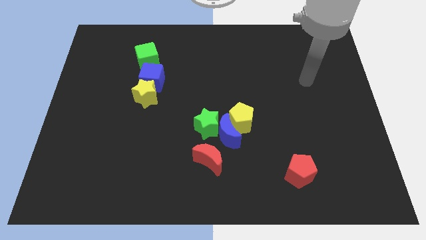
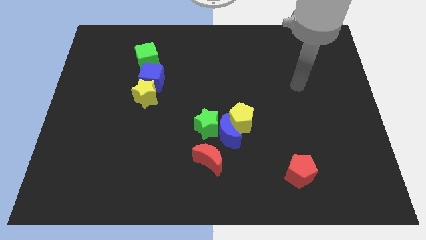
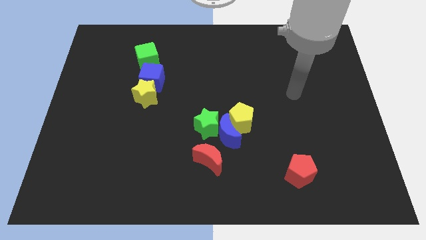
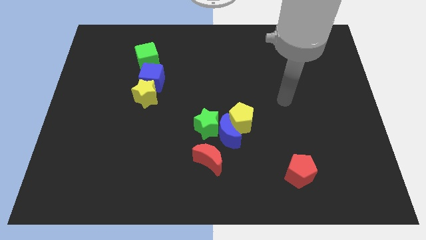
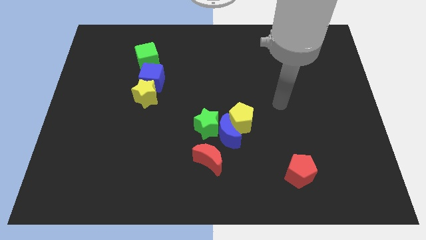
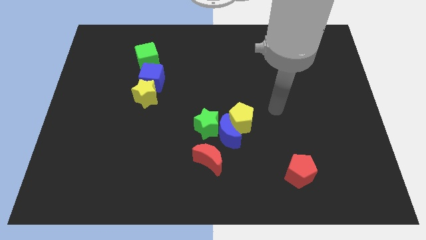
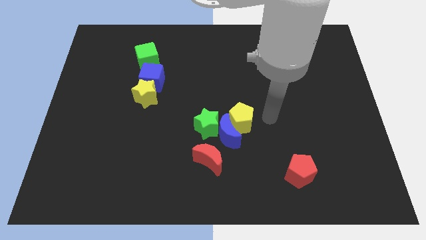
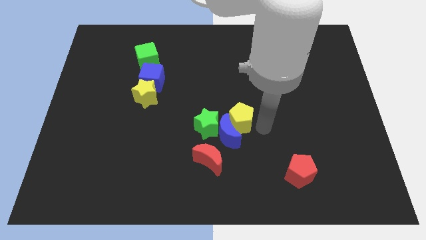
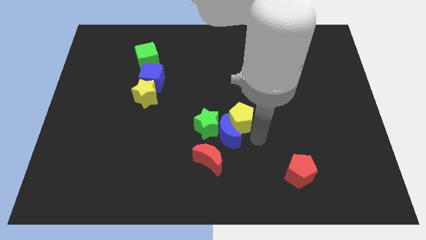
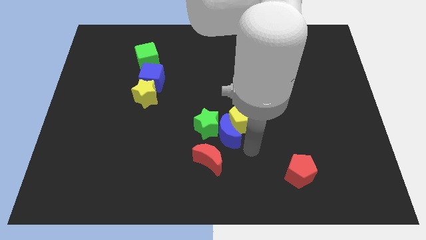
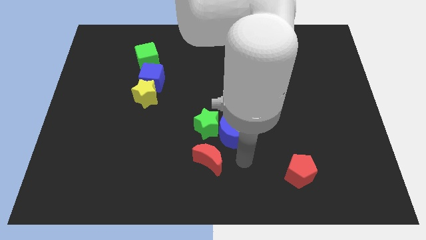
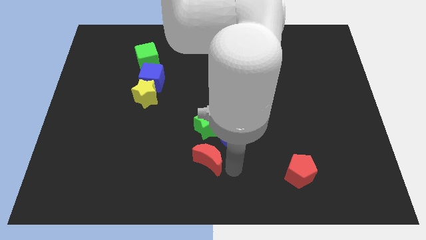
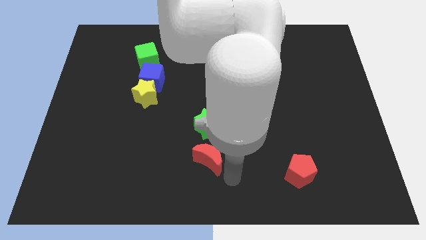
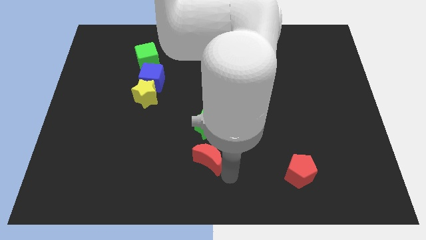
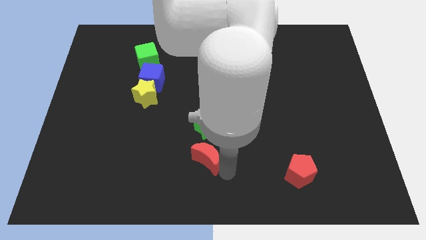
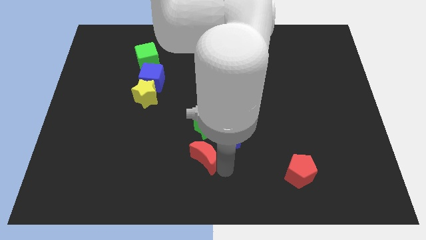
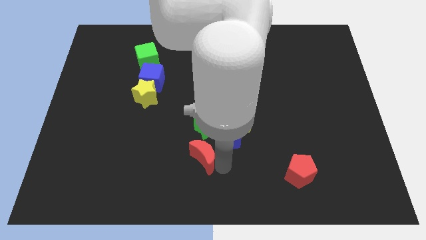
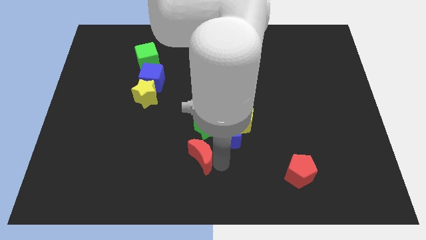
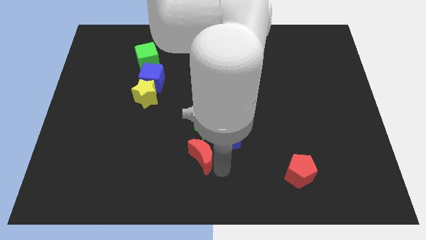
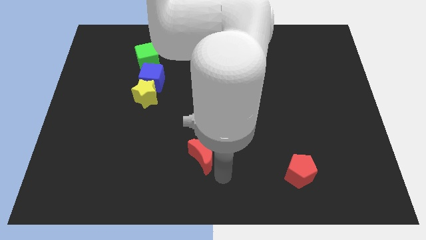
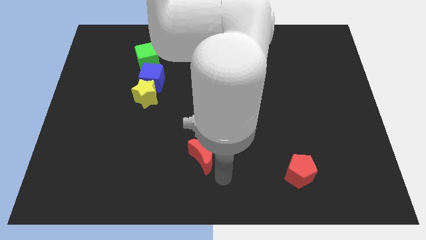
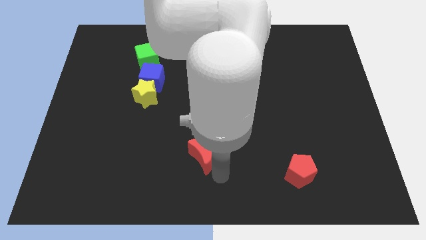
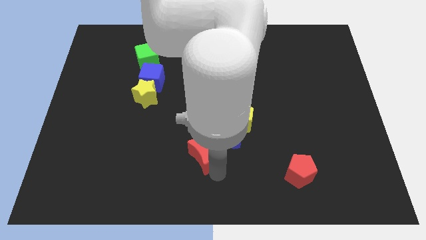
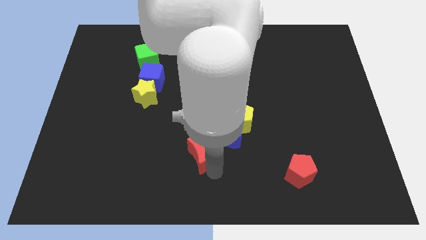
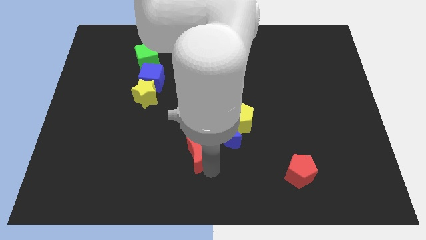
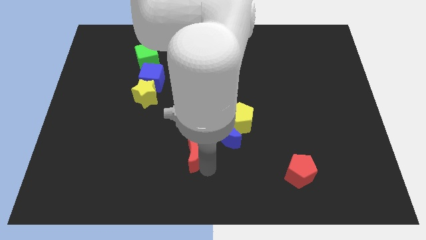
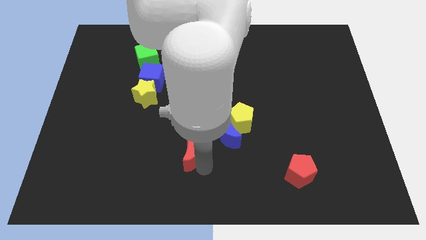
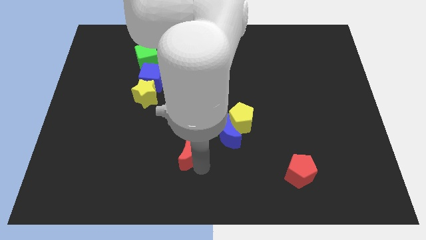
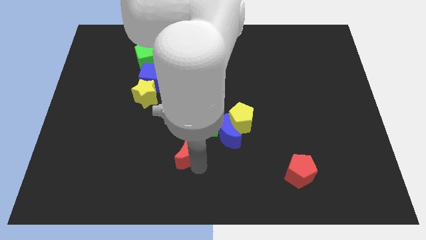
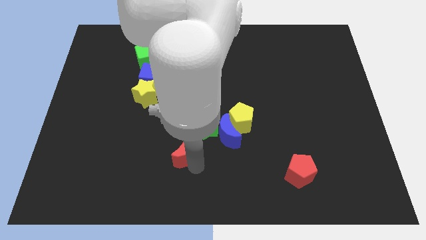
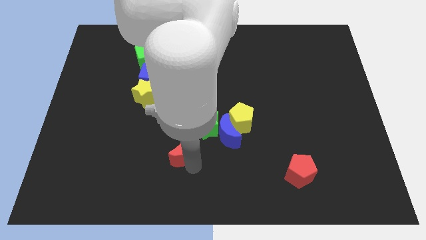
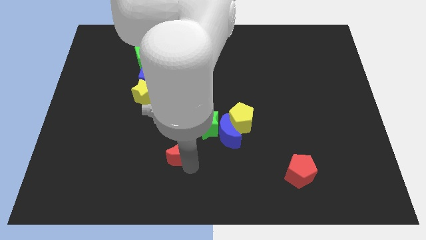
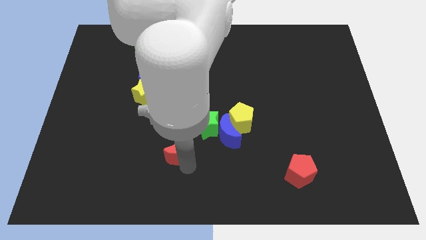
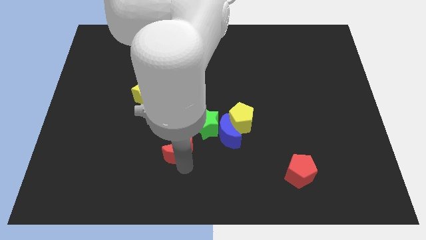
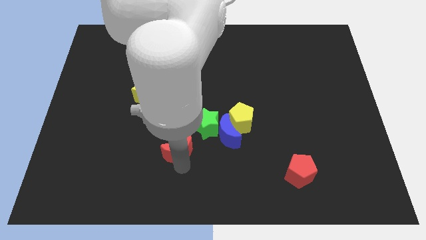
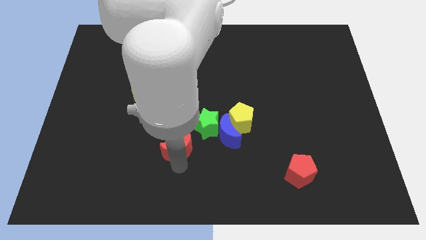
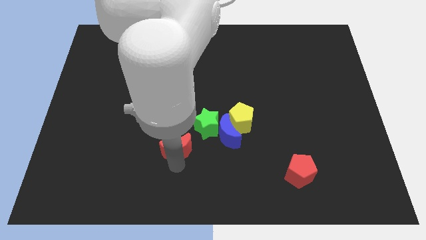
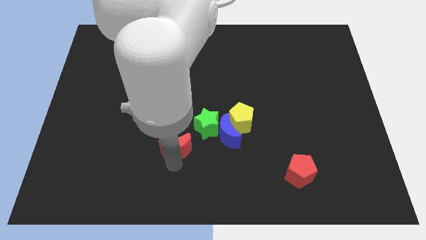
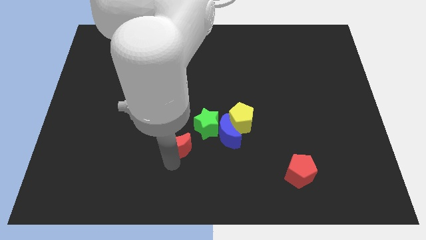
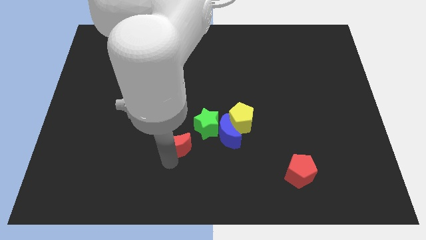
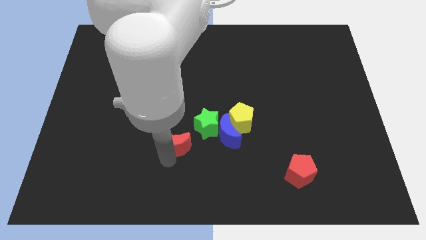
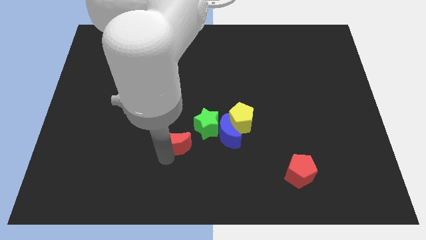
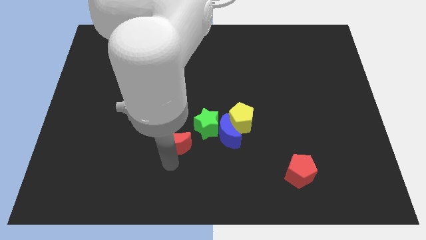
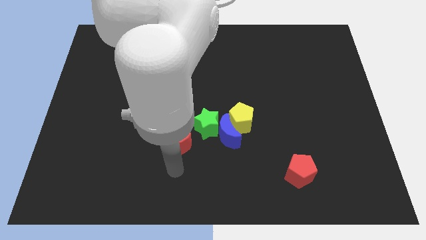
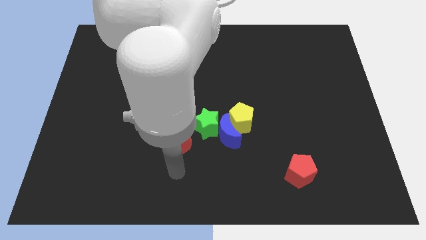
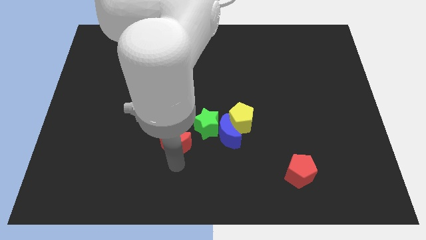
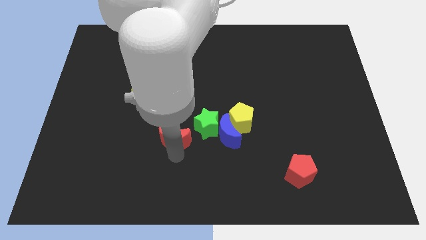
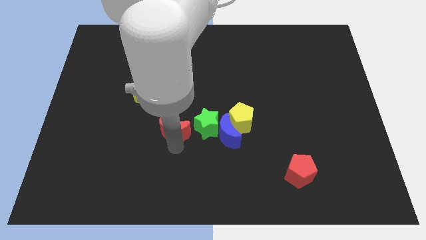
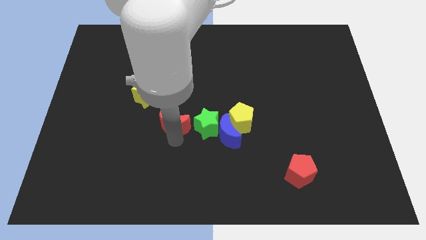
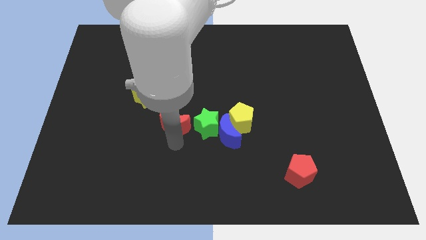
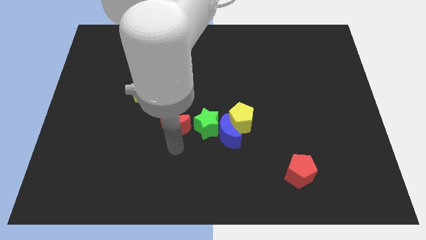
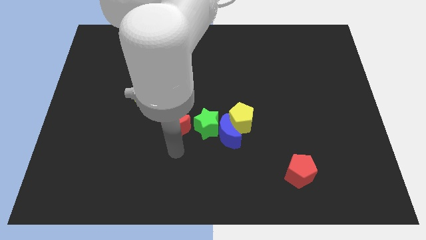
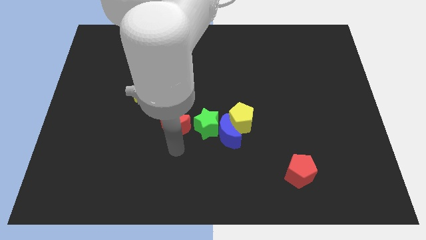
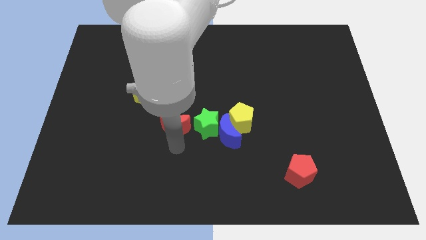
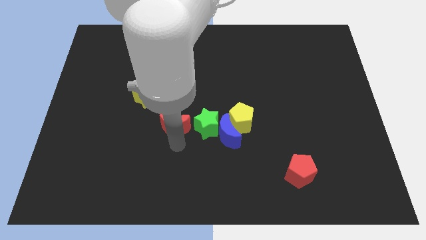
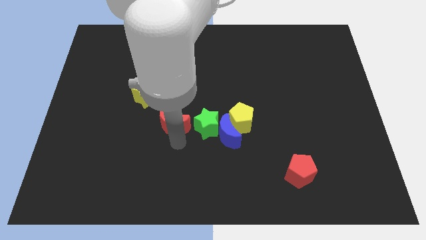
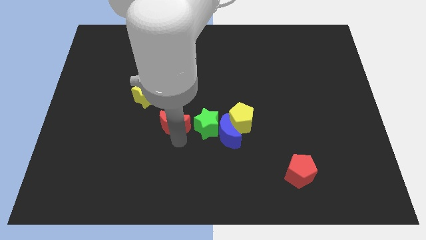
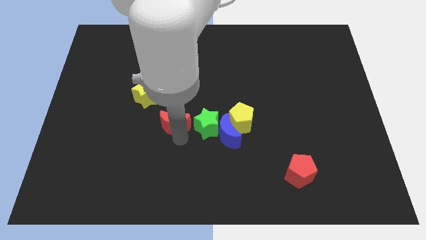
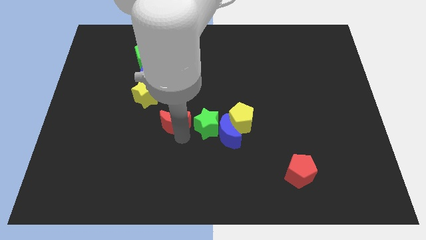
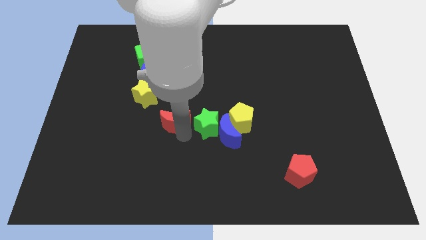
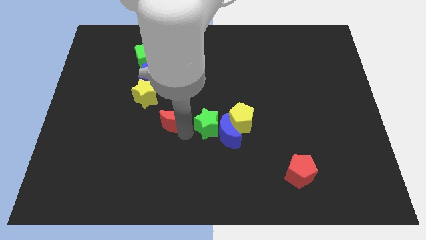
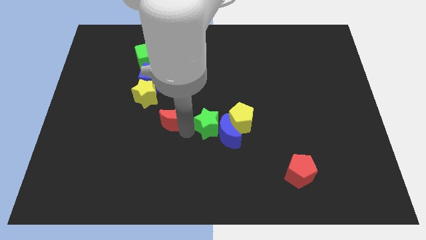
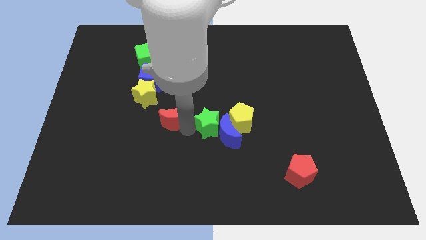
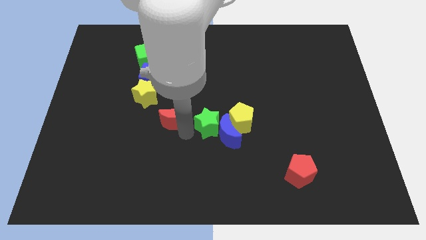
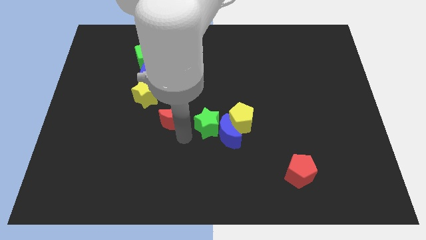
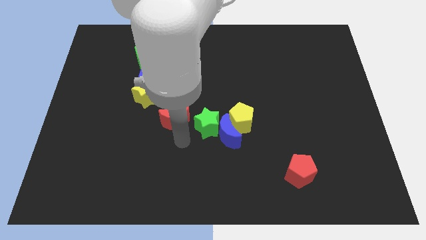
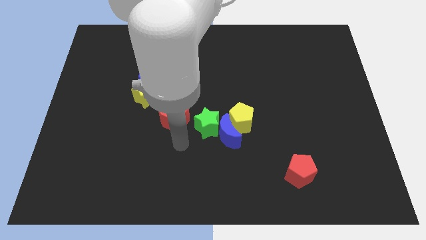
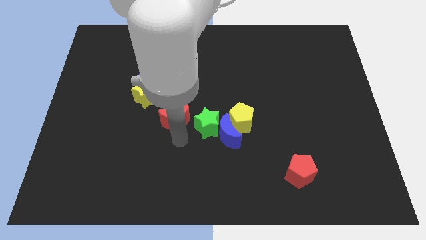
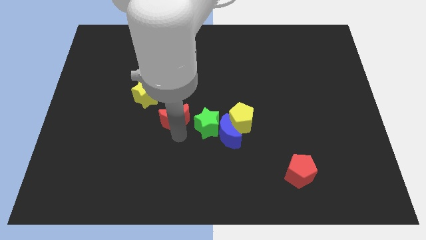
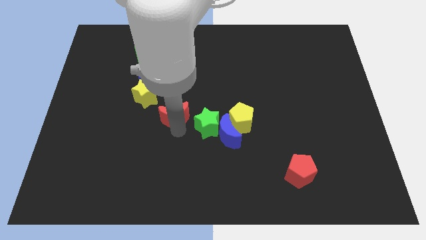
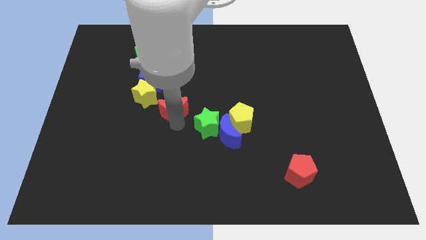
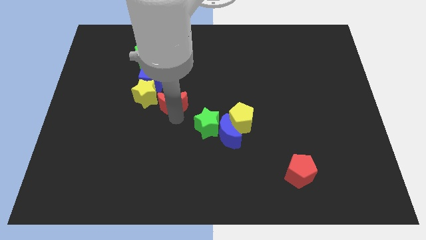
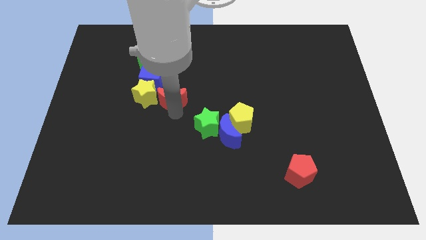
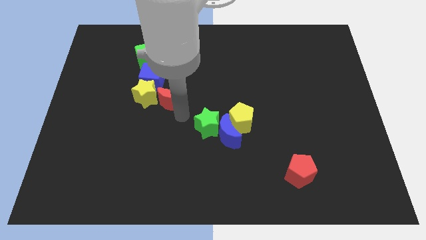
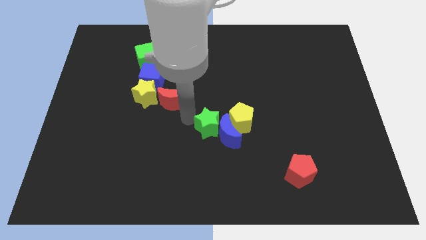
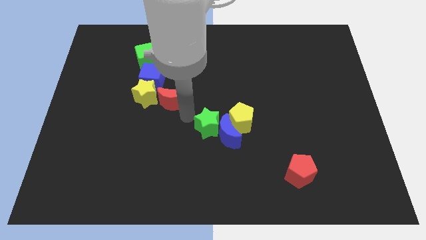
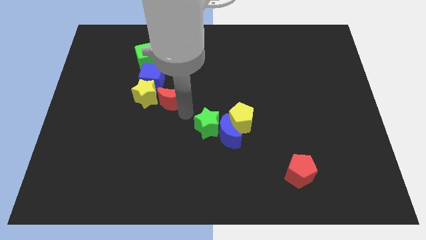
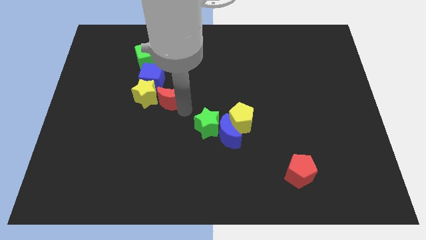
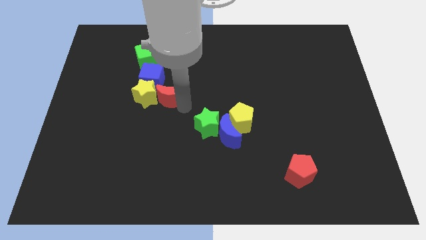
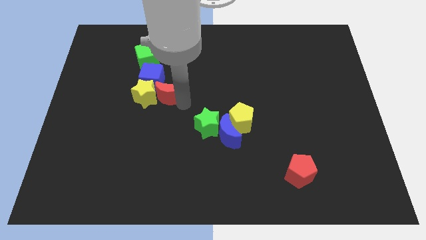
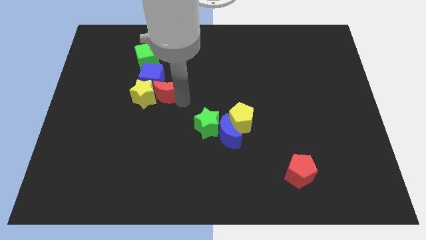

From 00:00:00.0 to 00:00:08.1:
push the red moon close to the blue cube
